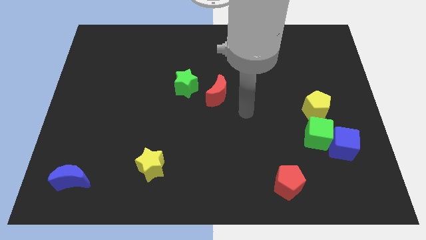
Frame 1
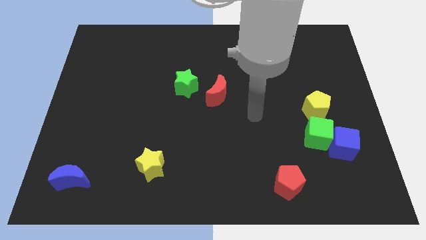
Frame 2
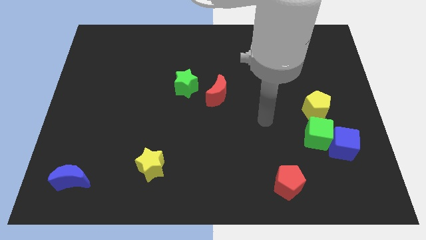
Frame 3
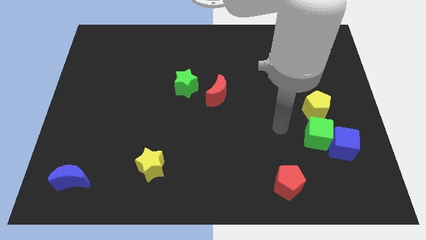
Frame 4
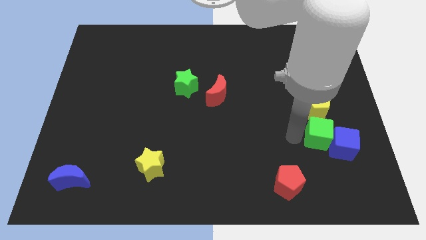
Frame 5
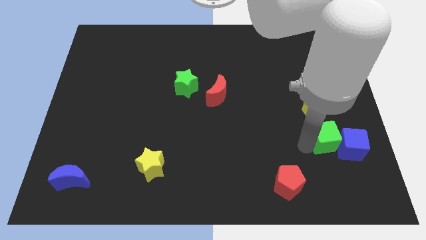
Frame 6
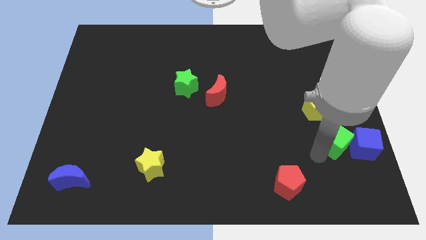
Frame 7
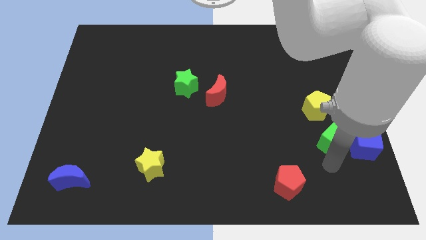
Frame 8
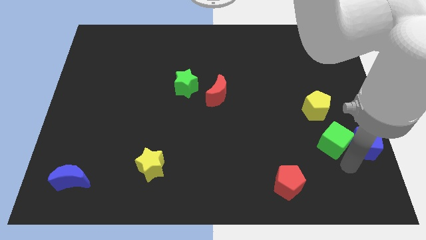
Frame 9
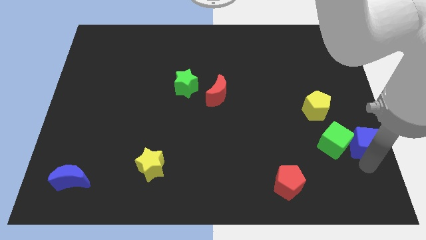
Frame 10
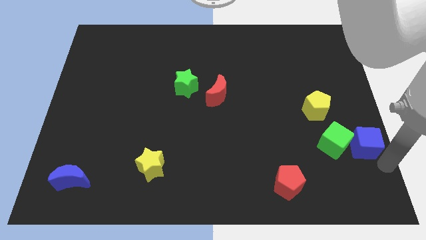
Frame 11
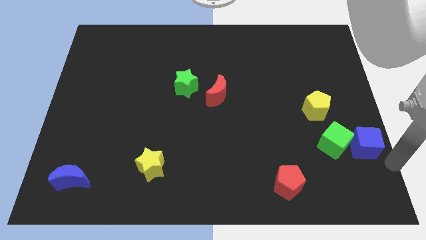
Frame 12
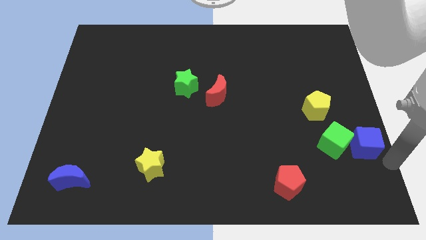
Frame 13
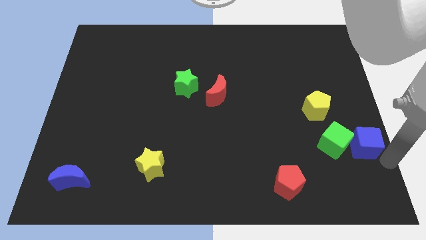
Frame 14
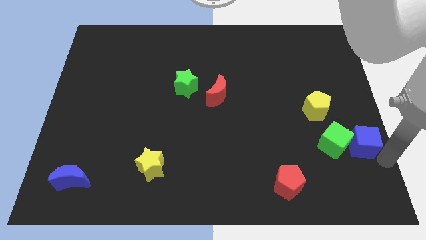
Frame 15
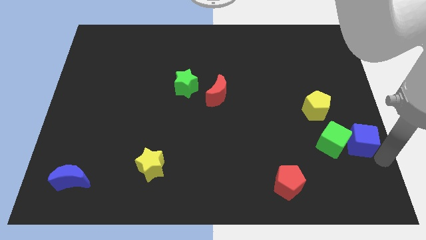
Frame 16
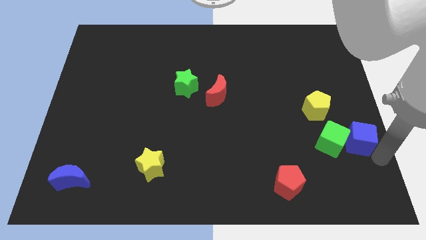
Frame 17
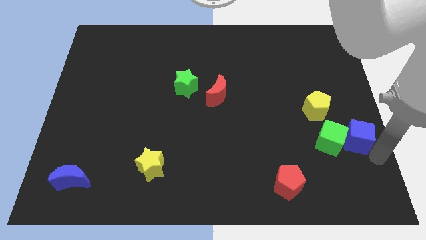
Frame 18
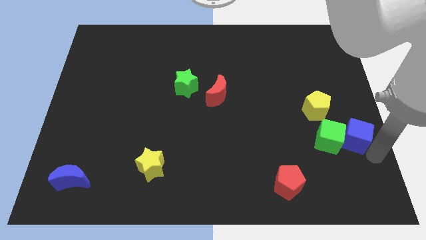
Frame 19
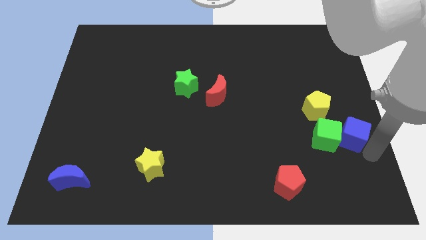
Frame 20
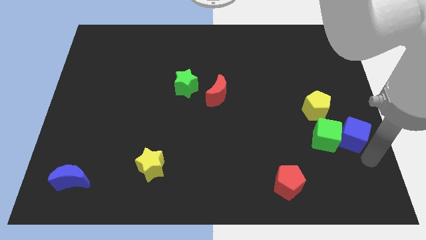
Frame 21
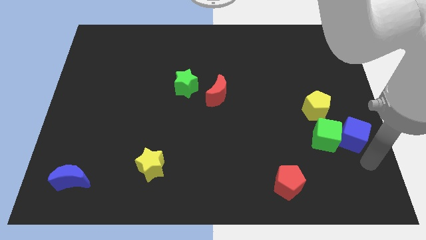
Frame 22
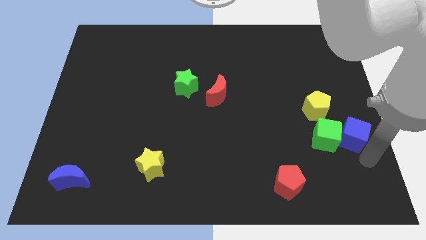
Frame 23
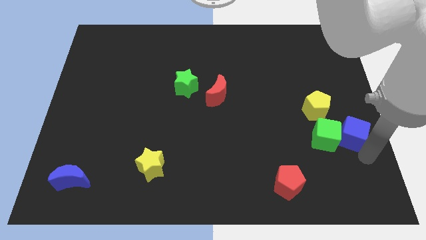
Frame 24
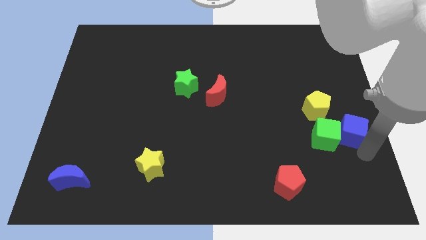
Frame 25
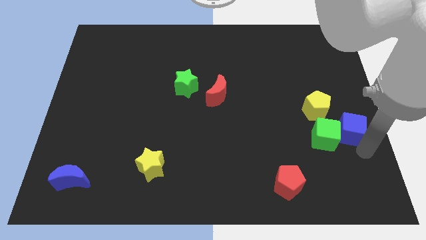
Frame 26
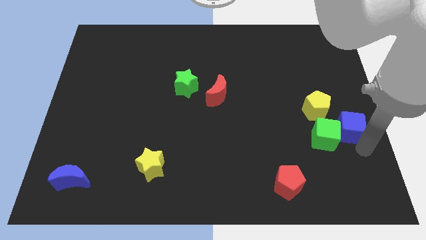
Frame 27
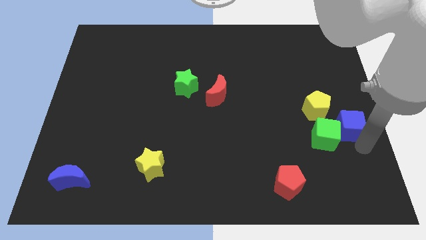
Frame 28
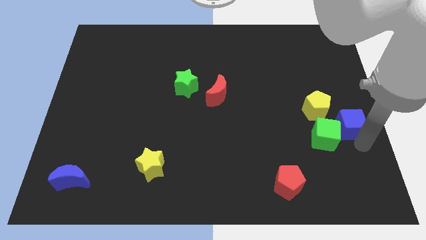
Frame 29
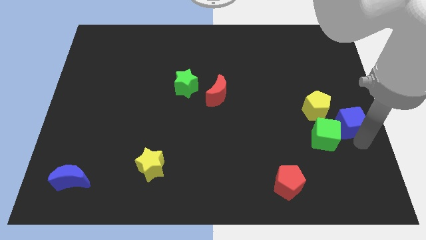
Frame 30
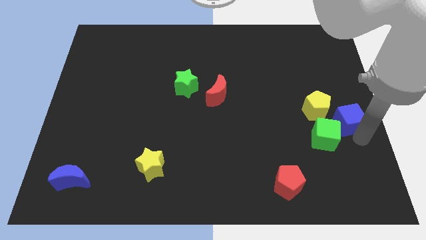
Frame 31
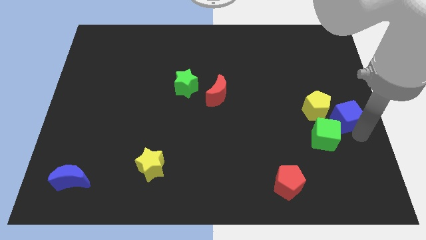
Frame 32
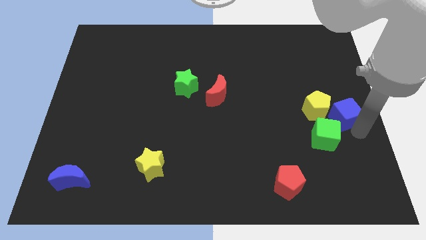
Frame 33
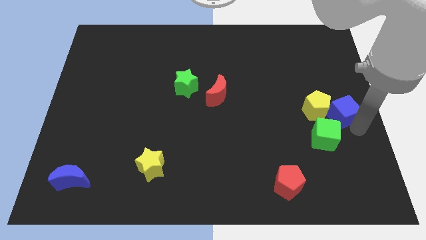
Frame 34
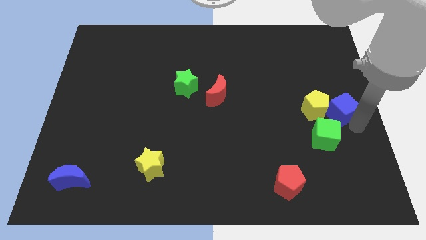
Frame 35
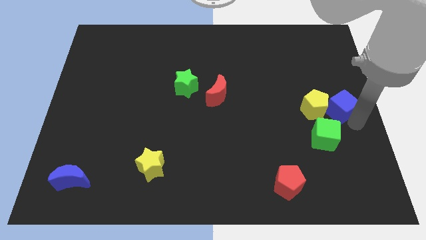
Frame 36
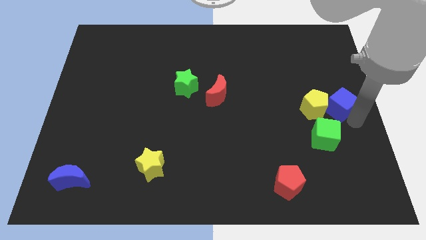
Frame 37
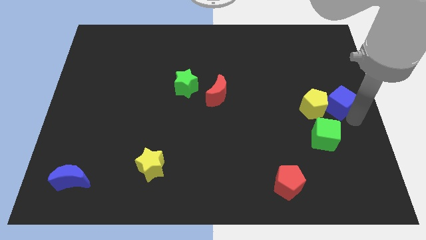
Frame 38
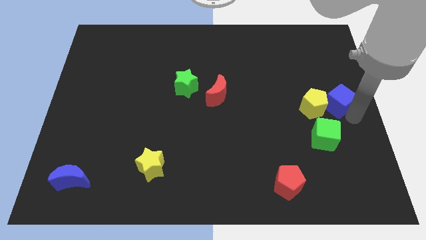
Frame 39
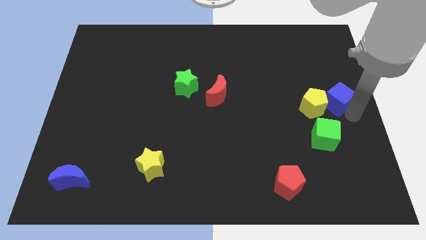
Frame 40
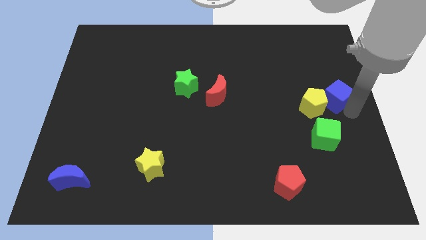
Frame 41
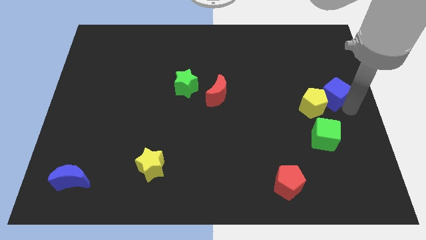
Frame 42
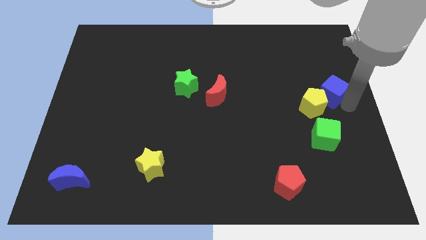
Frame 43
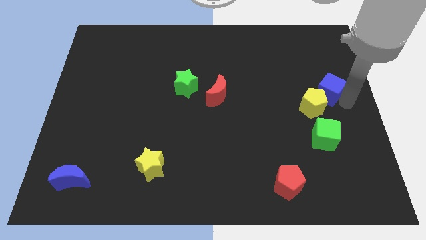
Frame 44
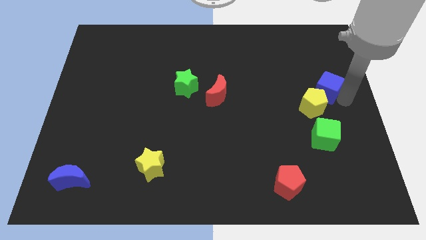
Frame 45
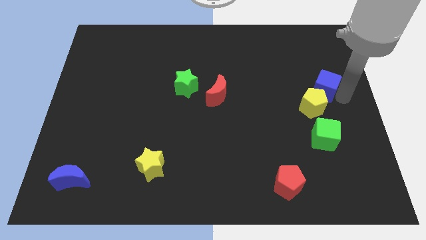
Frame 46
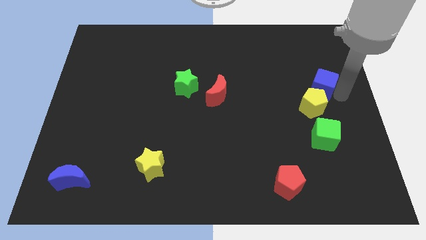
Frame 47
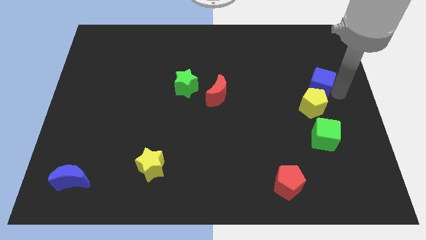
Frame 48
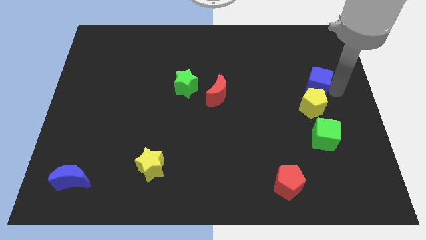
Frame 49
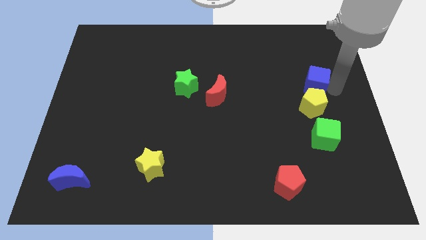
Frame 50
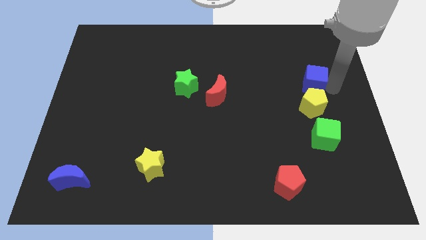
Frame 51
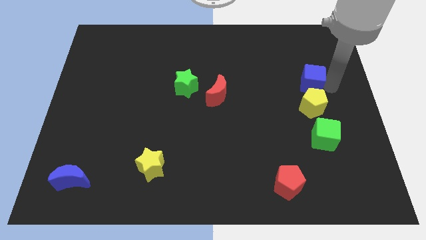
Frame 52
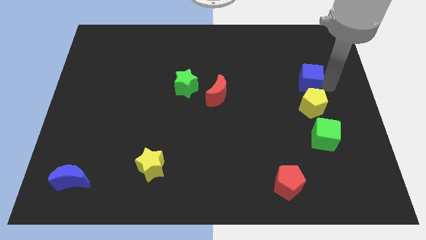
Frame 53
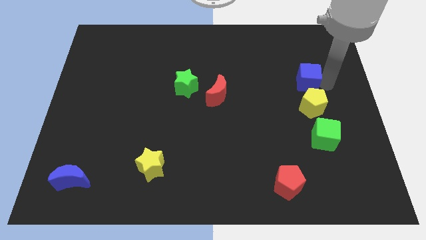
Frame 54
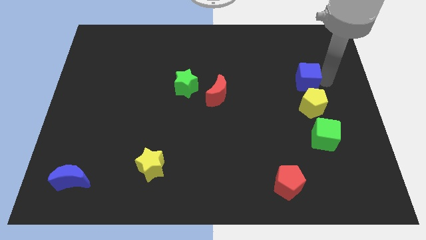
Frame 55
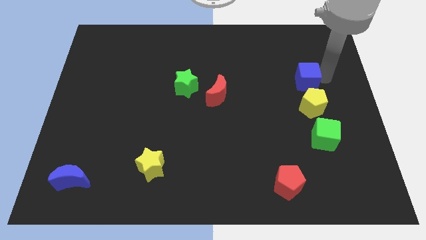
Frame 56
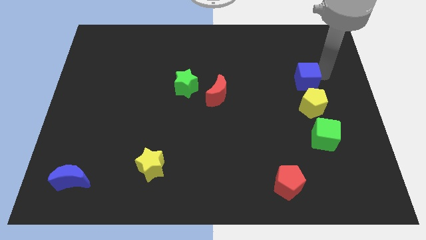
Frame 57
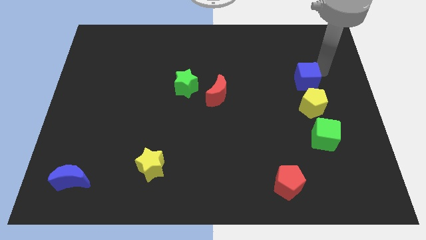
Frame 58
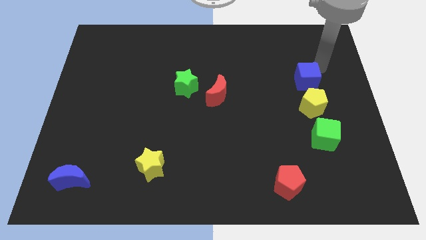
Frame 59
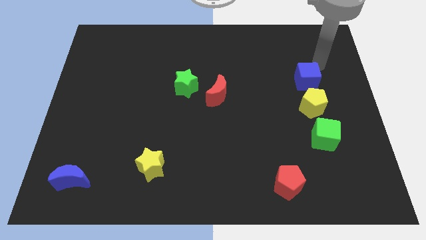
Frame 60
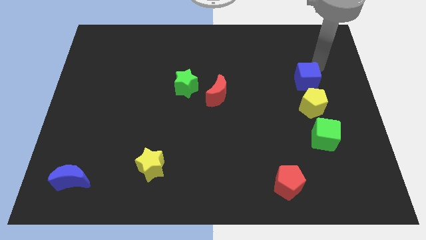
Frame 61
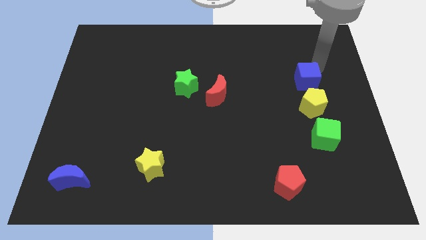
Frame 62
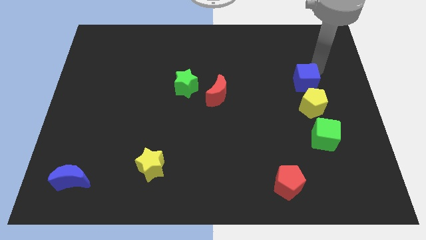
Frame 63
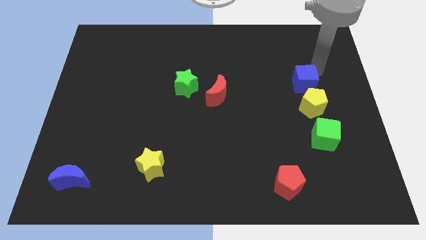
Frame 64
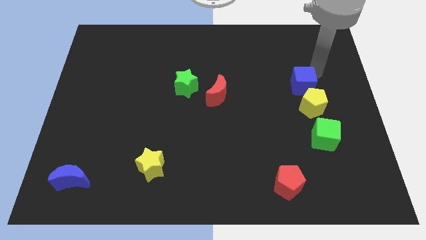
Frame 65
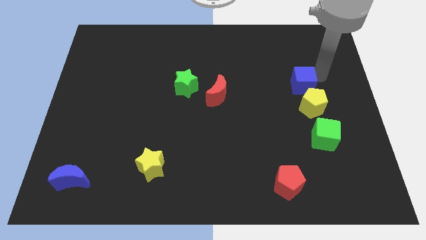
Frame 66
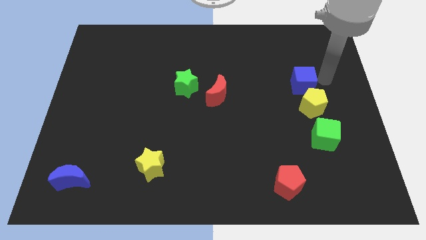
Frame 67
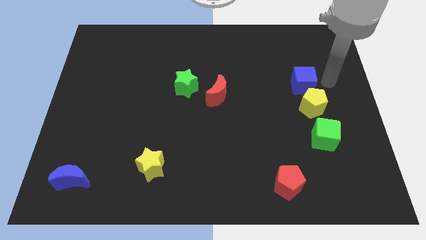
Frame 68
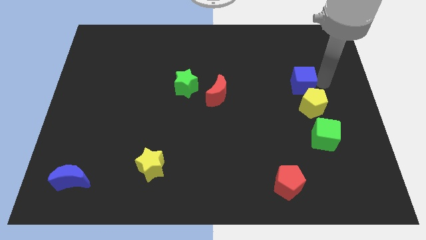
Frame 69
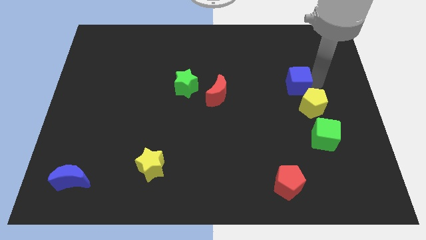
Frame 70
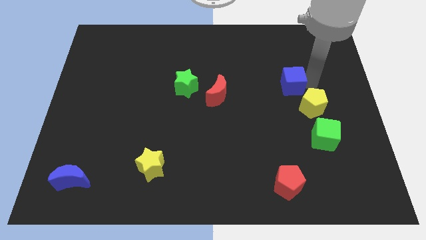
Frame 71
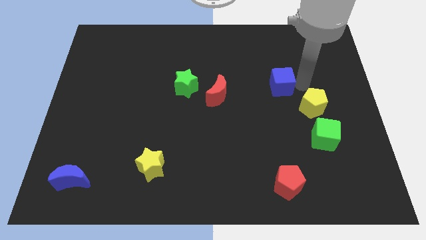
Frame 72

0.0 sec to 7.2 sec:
slide the blue cube up and left

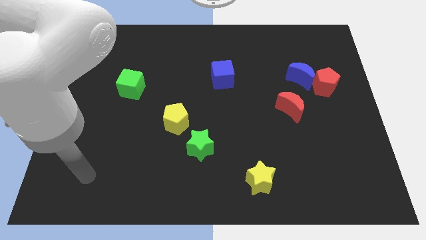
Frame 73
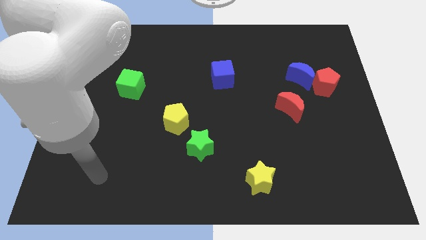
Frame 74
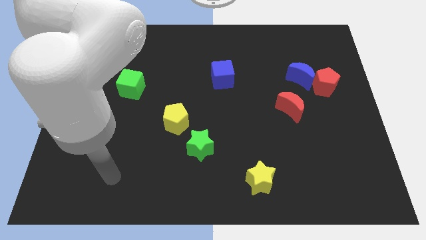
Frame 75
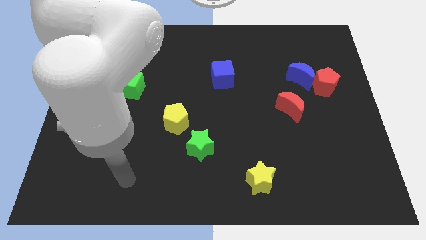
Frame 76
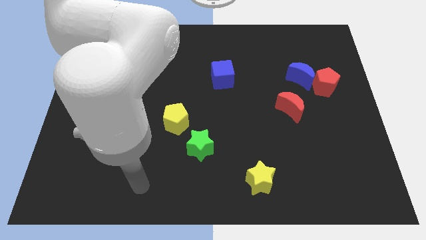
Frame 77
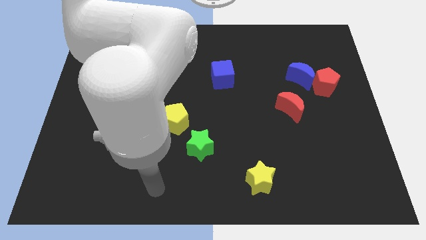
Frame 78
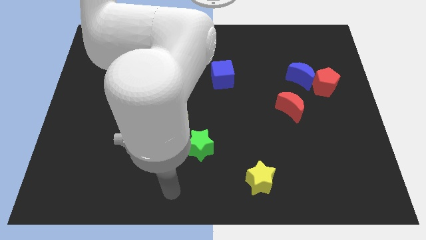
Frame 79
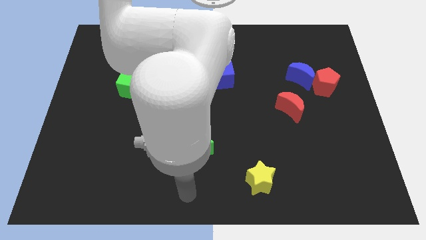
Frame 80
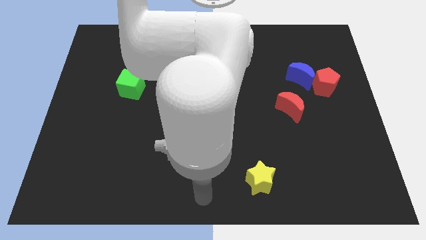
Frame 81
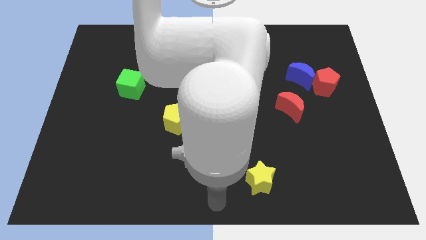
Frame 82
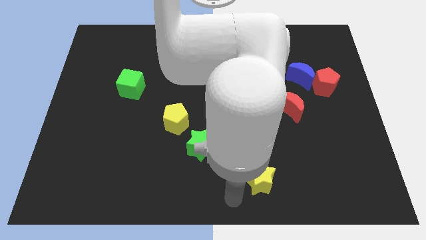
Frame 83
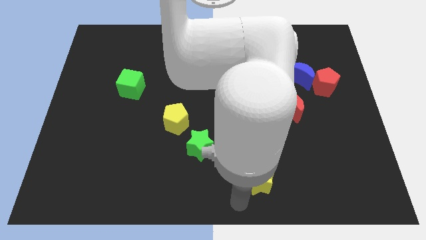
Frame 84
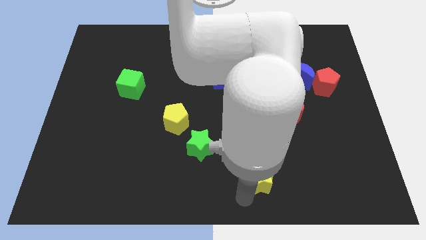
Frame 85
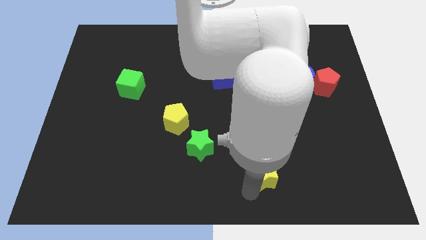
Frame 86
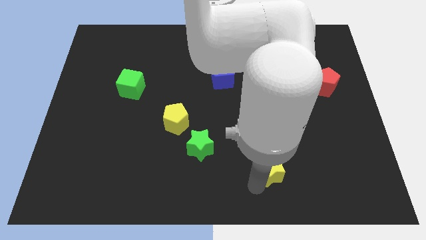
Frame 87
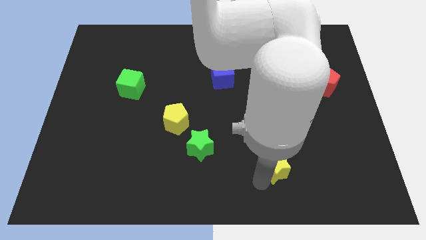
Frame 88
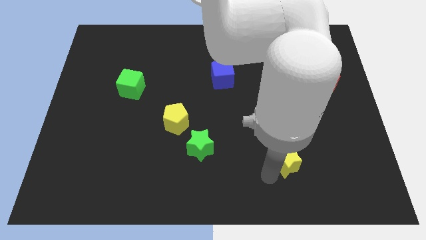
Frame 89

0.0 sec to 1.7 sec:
slightly slide the yellow star up and to the right
